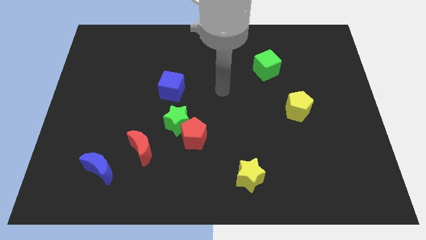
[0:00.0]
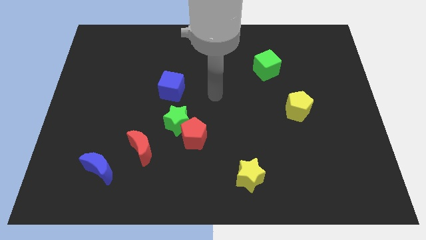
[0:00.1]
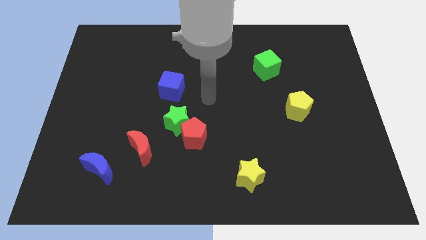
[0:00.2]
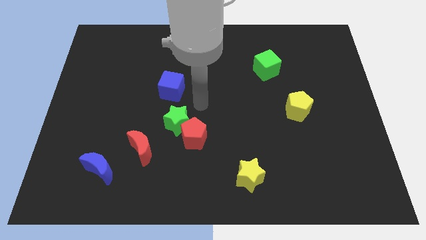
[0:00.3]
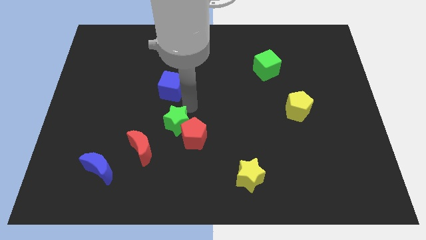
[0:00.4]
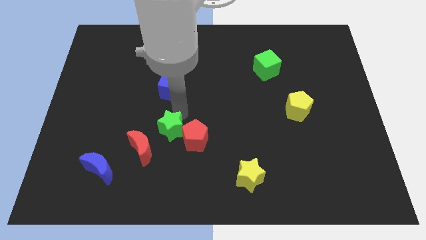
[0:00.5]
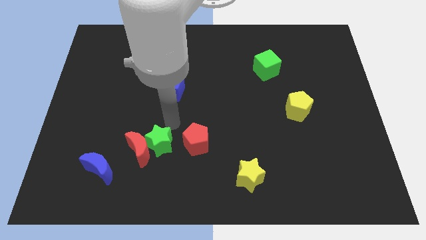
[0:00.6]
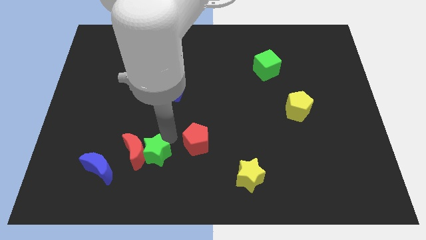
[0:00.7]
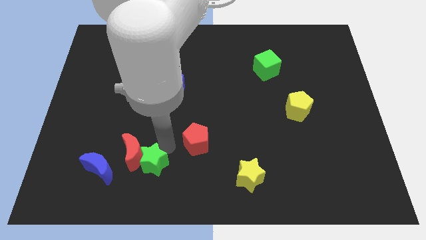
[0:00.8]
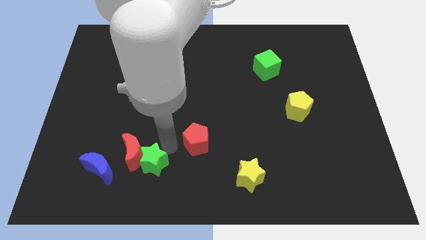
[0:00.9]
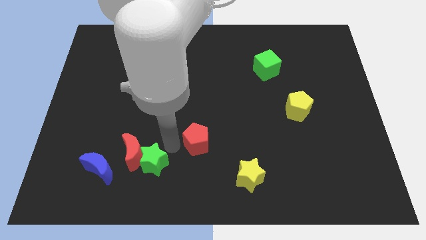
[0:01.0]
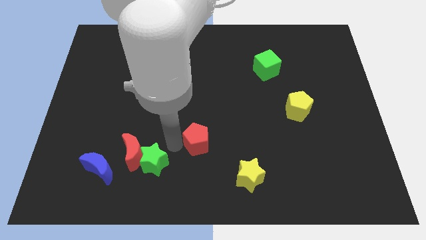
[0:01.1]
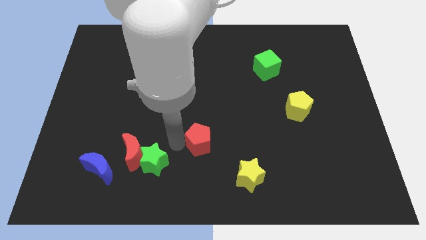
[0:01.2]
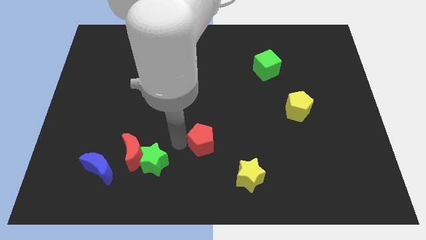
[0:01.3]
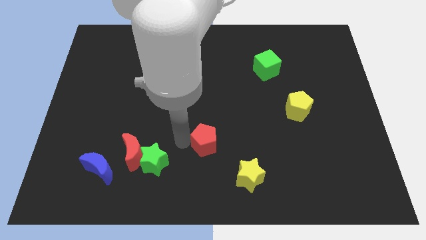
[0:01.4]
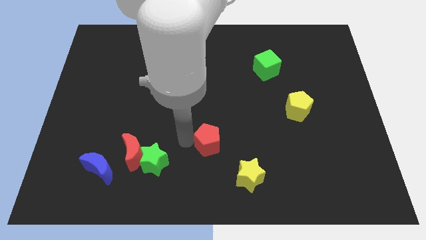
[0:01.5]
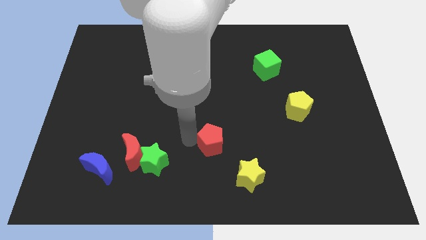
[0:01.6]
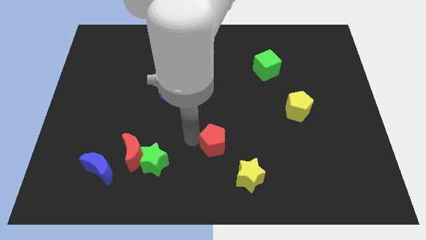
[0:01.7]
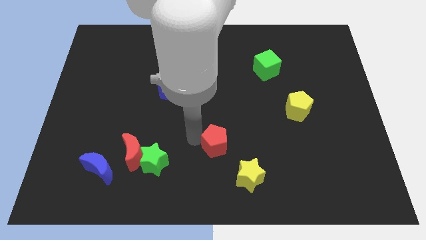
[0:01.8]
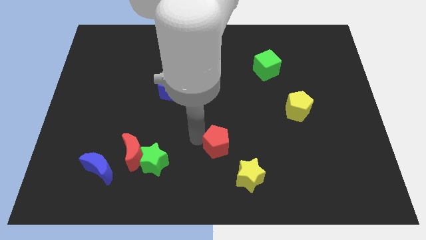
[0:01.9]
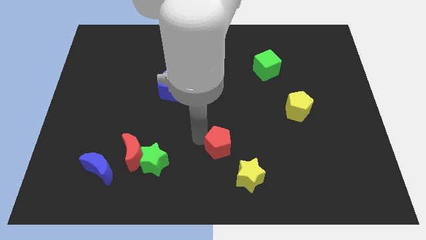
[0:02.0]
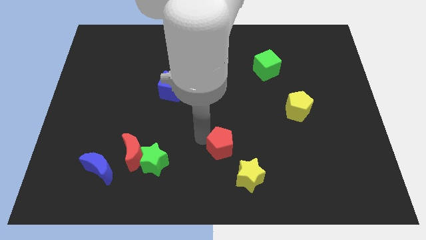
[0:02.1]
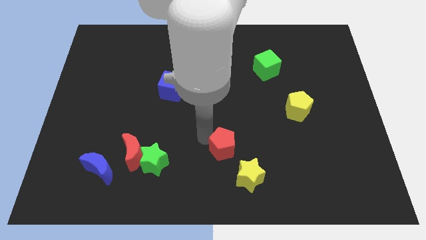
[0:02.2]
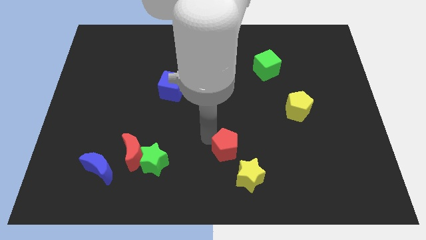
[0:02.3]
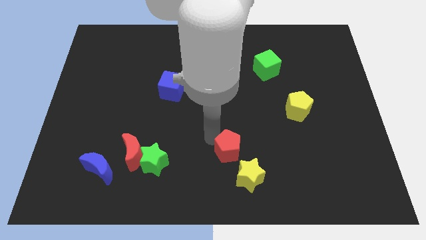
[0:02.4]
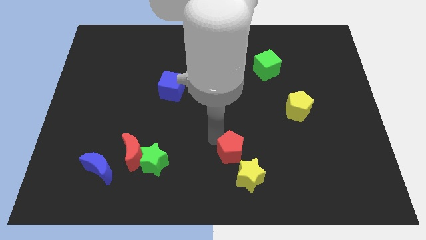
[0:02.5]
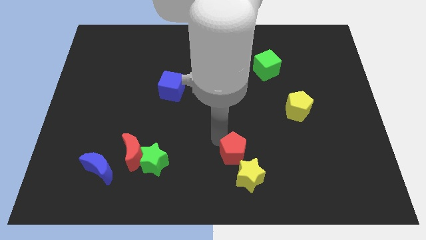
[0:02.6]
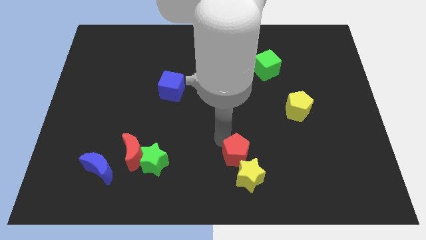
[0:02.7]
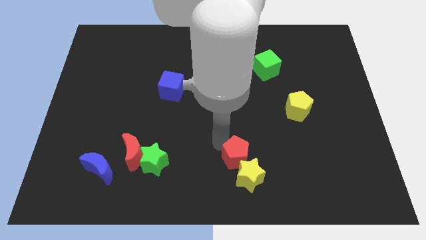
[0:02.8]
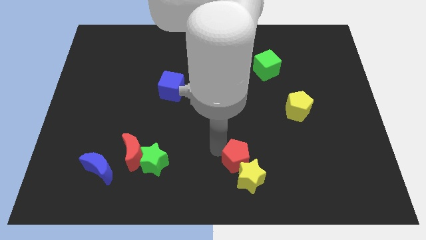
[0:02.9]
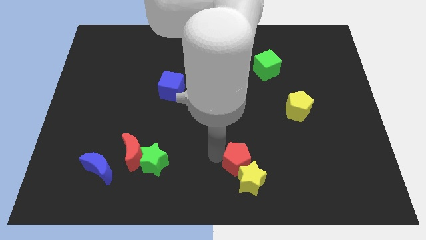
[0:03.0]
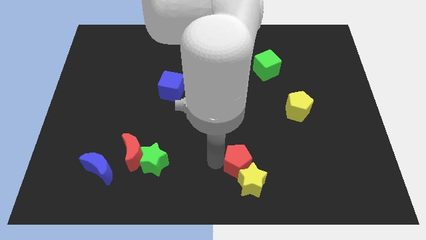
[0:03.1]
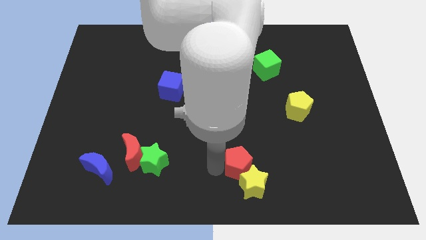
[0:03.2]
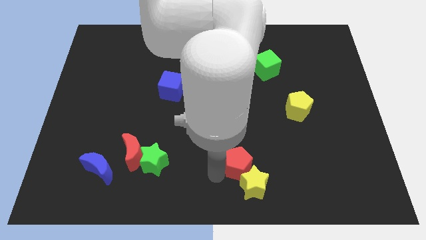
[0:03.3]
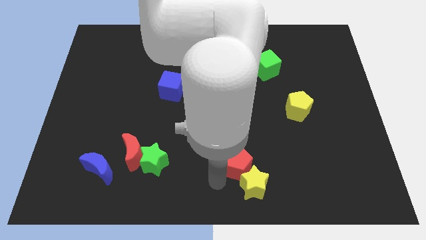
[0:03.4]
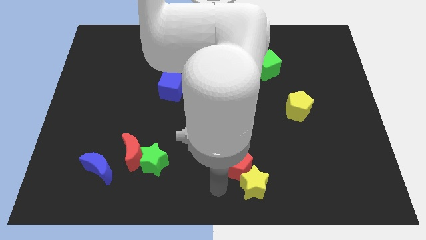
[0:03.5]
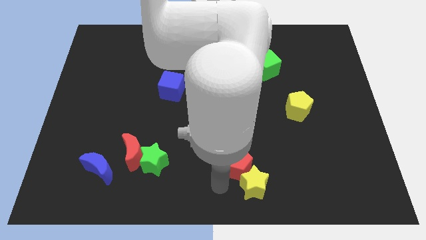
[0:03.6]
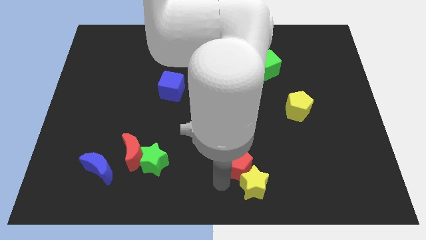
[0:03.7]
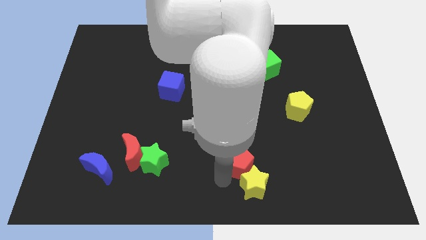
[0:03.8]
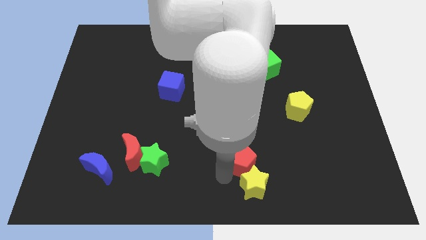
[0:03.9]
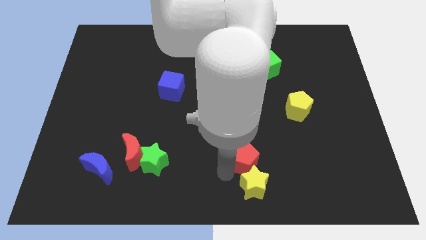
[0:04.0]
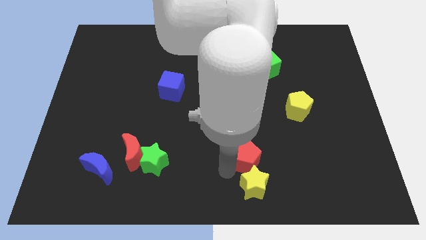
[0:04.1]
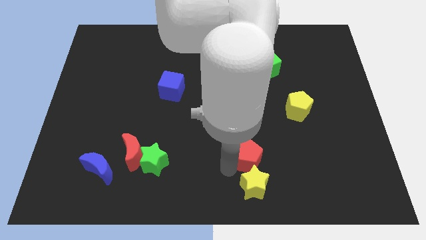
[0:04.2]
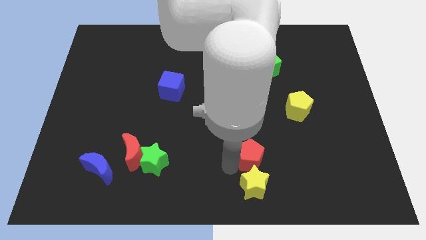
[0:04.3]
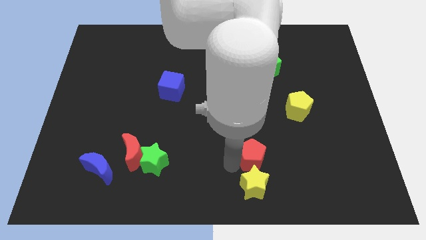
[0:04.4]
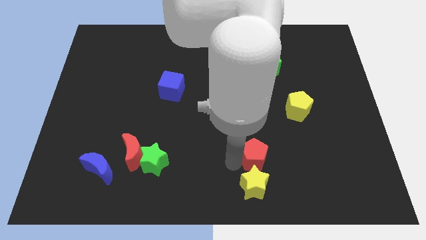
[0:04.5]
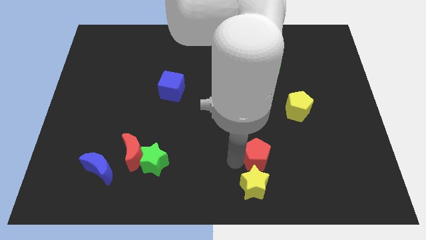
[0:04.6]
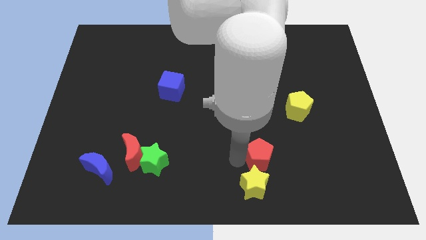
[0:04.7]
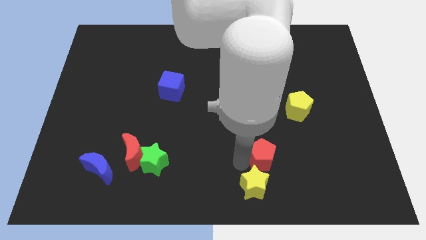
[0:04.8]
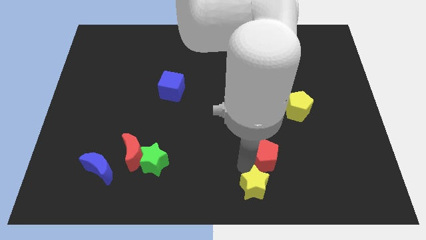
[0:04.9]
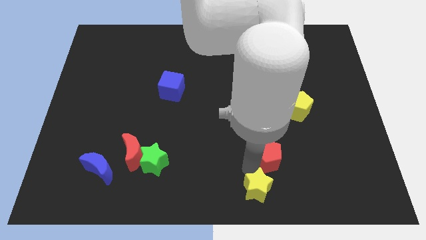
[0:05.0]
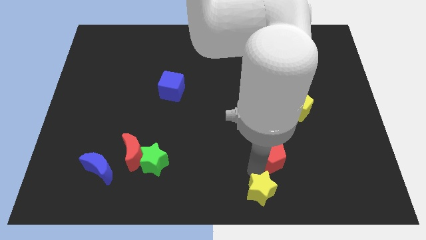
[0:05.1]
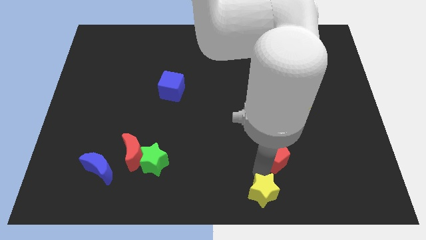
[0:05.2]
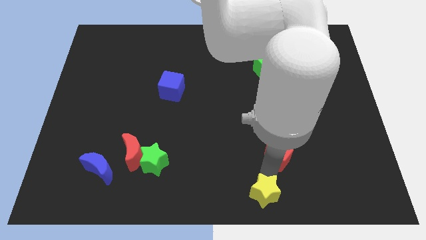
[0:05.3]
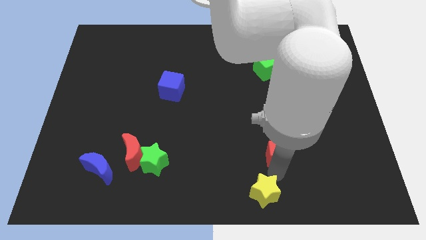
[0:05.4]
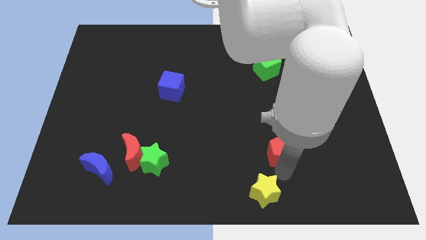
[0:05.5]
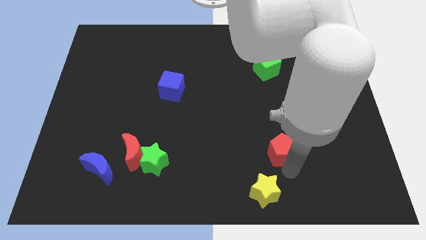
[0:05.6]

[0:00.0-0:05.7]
slide the red pentagon below the yellow pentagon

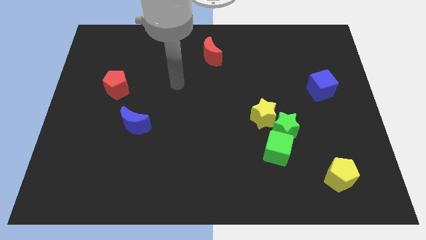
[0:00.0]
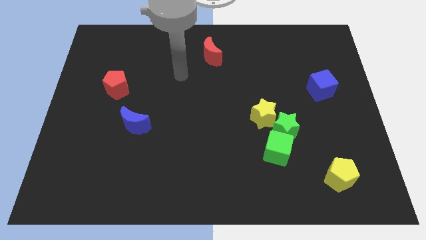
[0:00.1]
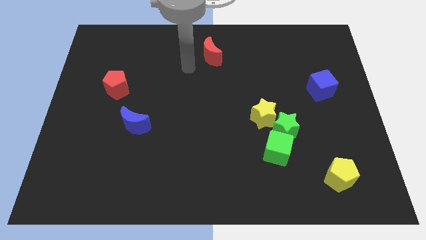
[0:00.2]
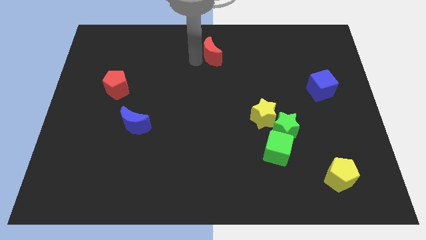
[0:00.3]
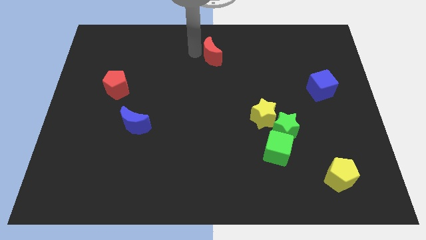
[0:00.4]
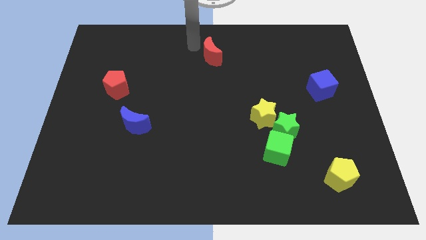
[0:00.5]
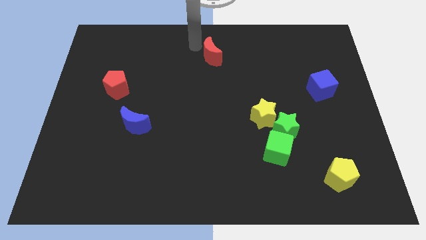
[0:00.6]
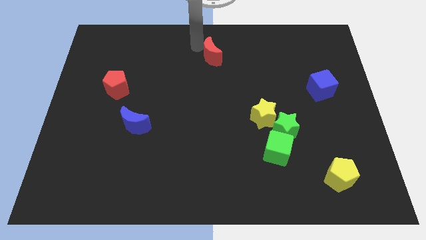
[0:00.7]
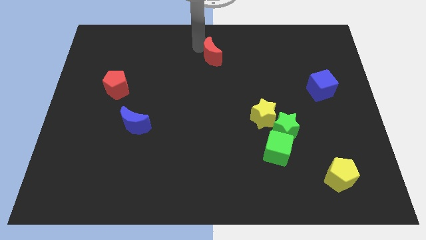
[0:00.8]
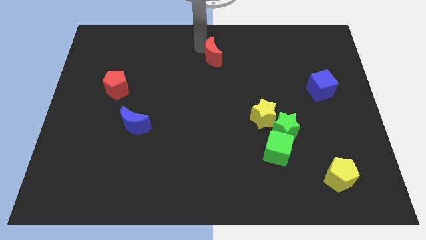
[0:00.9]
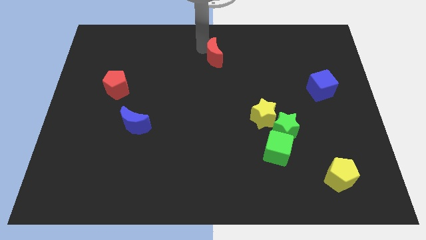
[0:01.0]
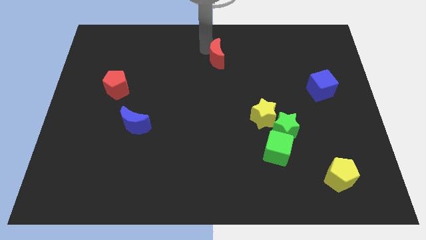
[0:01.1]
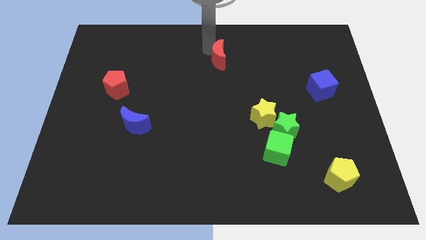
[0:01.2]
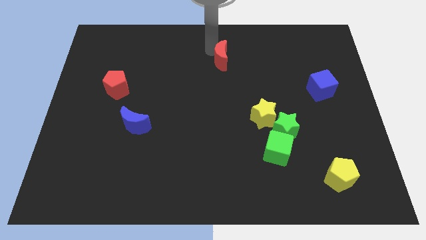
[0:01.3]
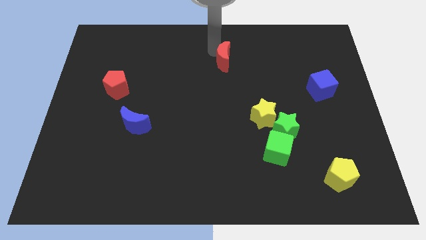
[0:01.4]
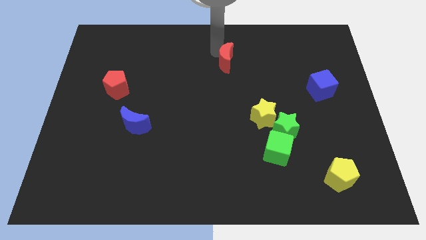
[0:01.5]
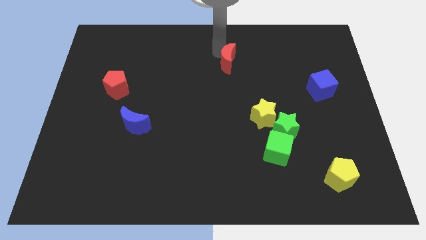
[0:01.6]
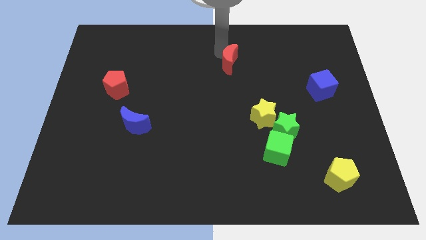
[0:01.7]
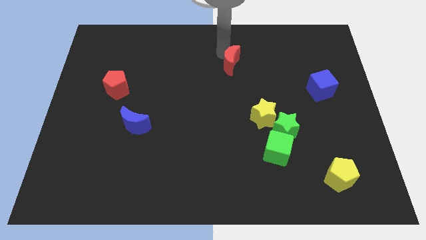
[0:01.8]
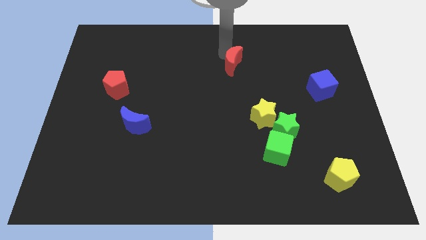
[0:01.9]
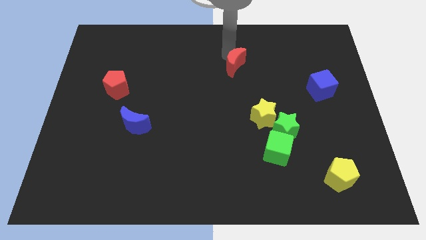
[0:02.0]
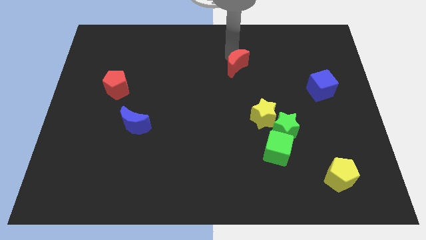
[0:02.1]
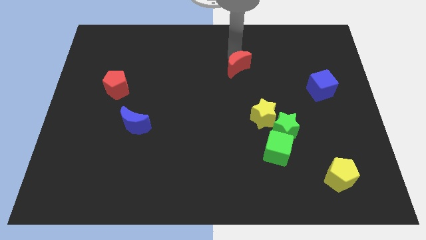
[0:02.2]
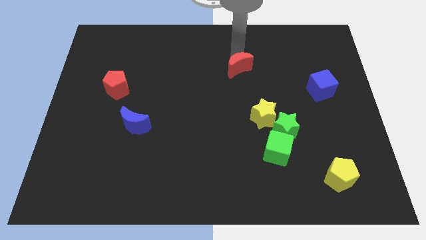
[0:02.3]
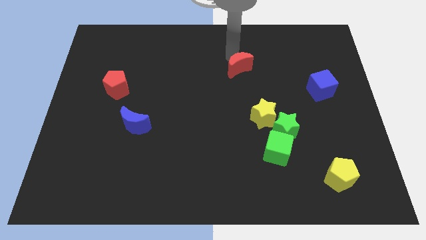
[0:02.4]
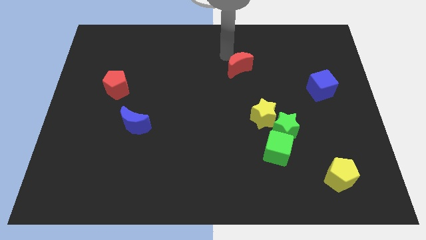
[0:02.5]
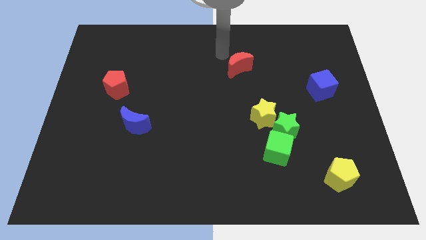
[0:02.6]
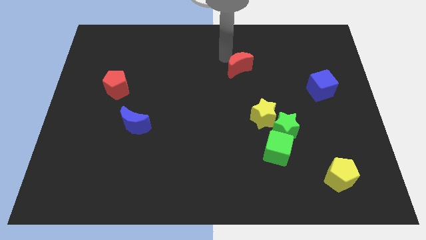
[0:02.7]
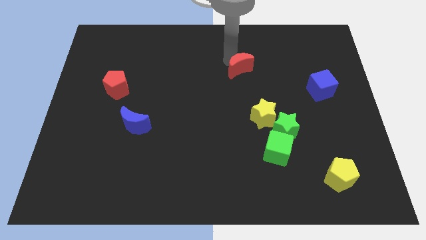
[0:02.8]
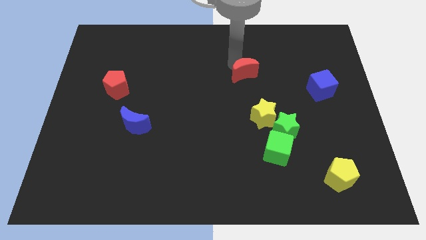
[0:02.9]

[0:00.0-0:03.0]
slide the red moon above the yellow star
